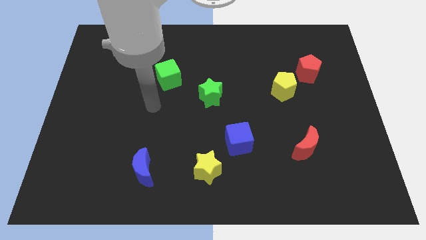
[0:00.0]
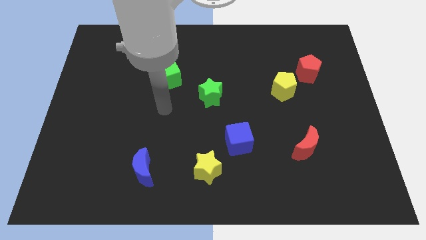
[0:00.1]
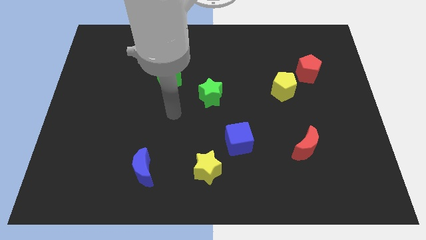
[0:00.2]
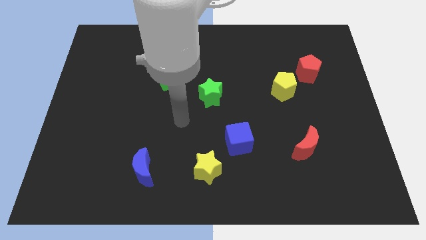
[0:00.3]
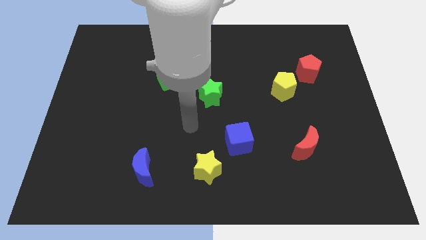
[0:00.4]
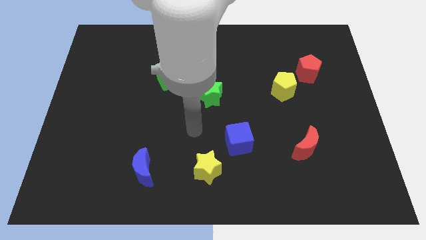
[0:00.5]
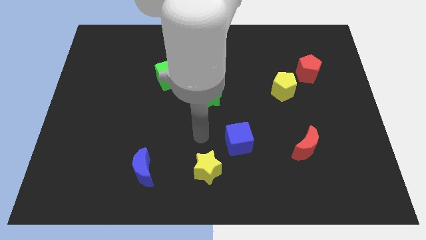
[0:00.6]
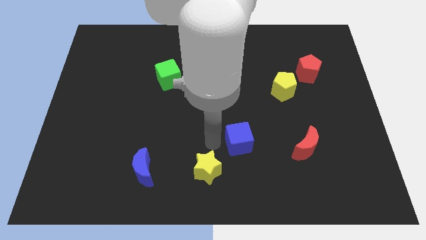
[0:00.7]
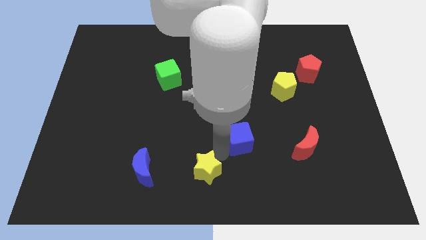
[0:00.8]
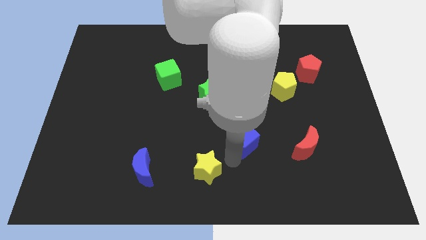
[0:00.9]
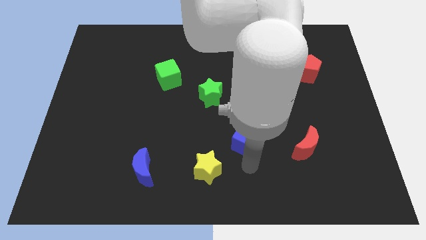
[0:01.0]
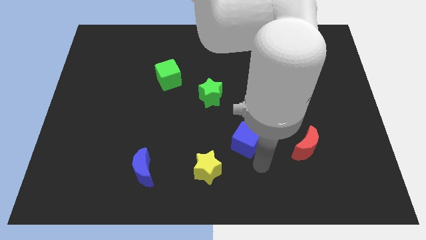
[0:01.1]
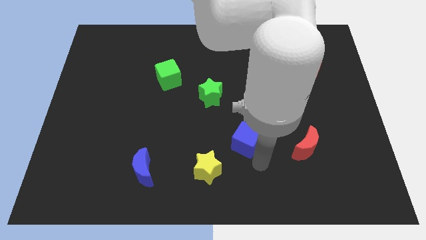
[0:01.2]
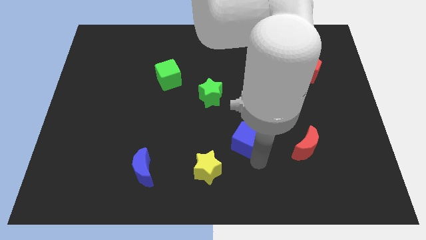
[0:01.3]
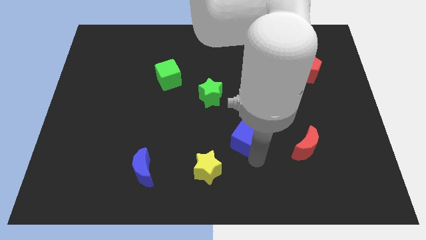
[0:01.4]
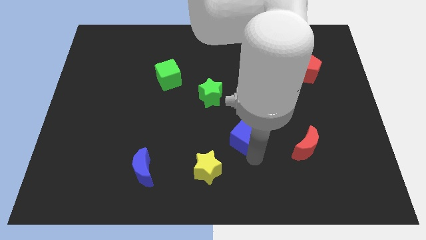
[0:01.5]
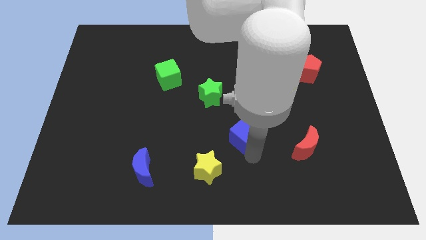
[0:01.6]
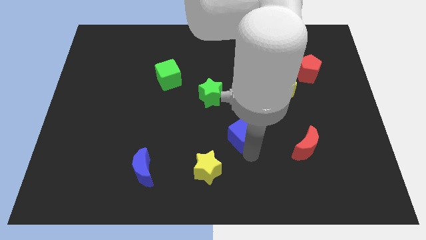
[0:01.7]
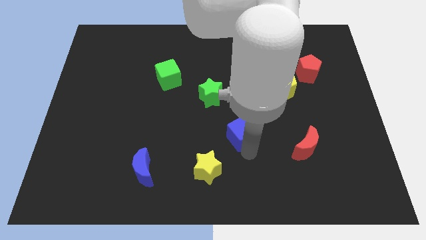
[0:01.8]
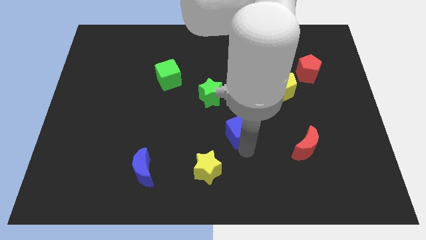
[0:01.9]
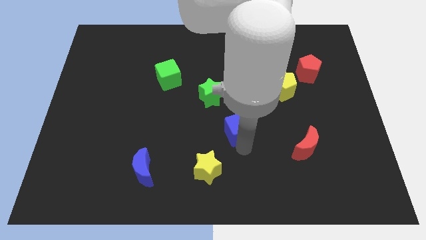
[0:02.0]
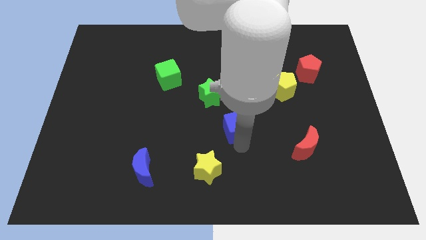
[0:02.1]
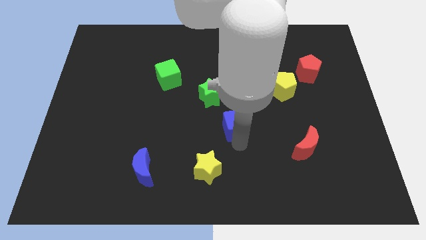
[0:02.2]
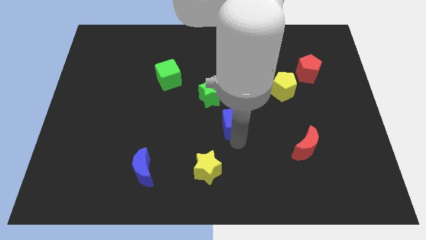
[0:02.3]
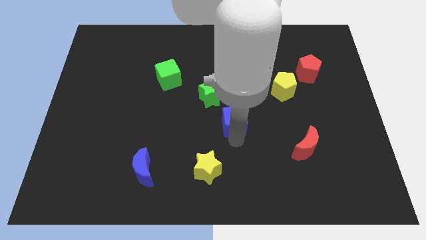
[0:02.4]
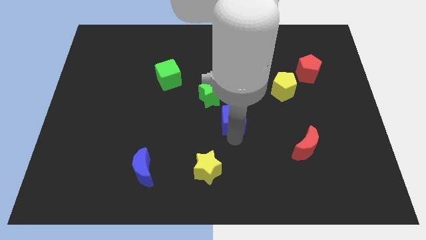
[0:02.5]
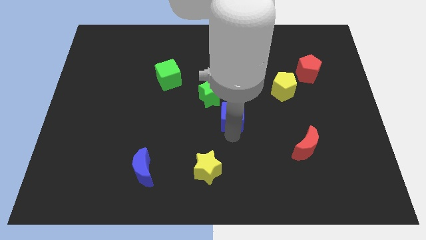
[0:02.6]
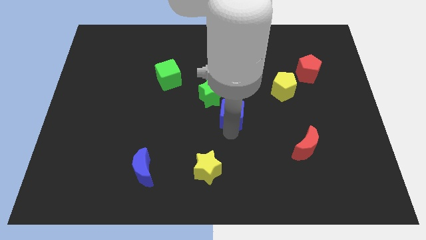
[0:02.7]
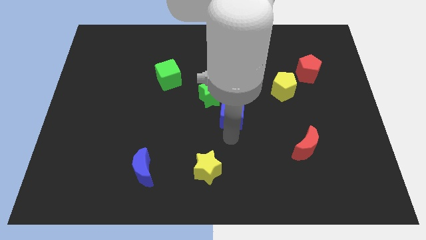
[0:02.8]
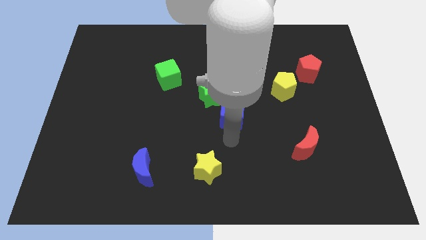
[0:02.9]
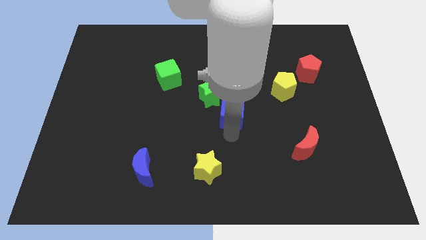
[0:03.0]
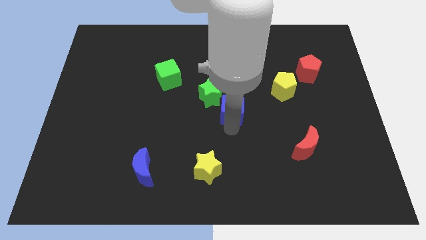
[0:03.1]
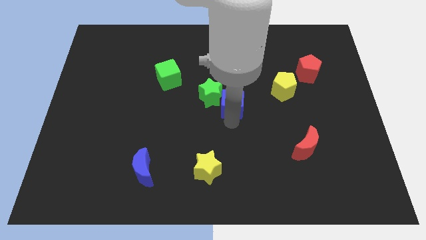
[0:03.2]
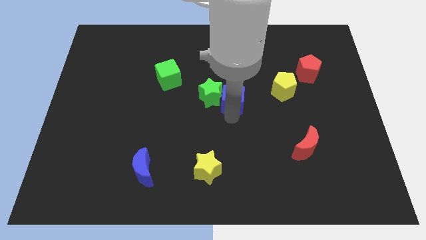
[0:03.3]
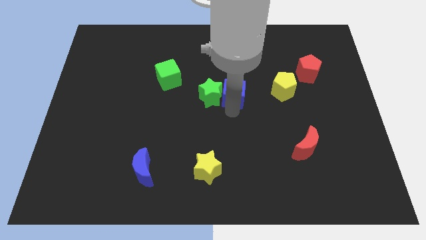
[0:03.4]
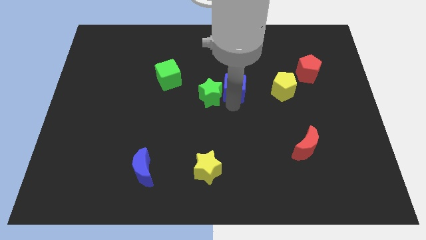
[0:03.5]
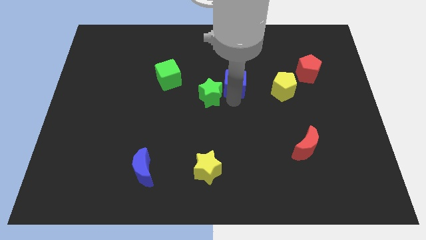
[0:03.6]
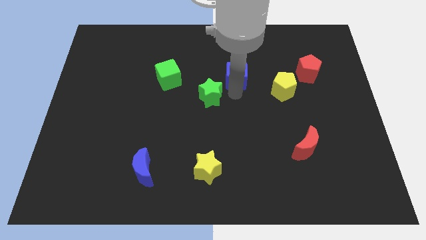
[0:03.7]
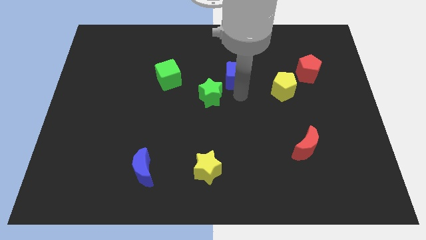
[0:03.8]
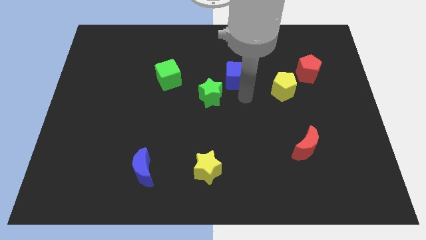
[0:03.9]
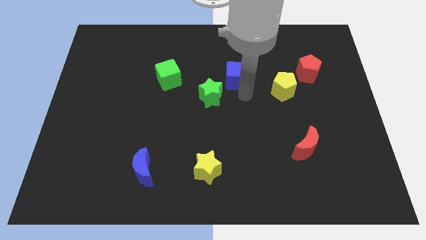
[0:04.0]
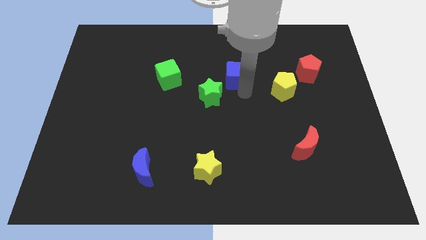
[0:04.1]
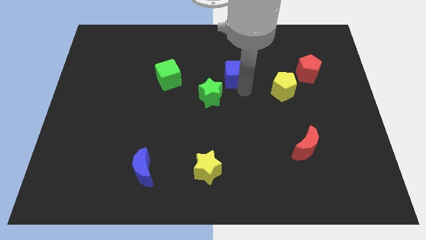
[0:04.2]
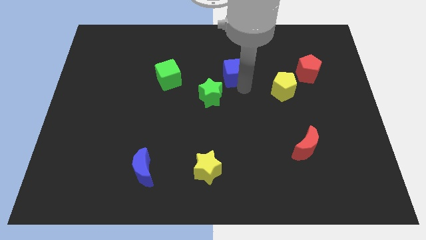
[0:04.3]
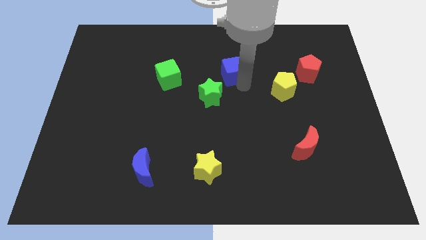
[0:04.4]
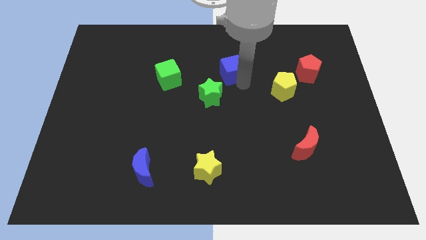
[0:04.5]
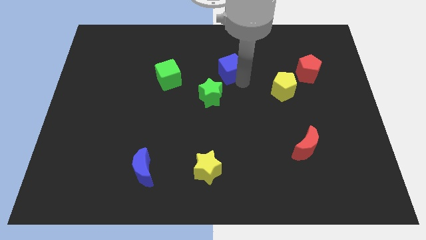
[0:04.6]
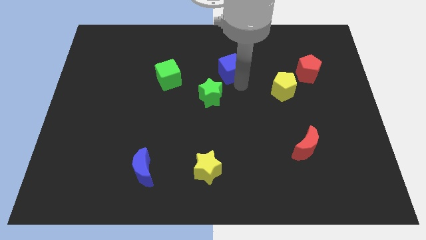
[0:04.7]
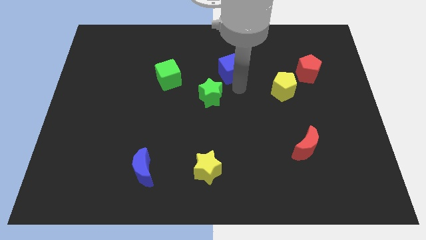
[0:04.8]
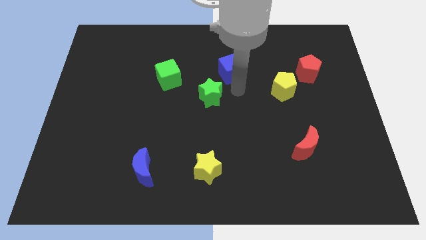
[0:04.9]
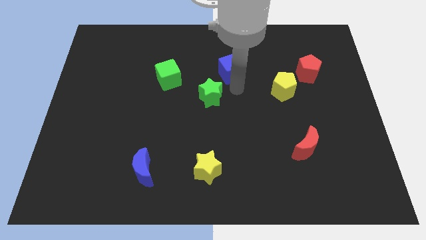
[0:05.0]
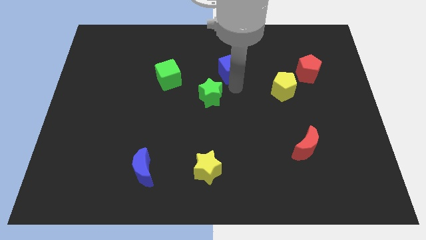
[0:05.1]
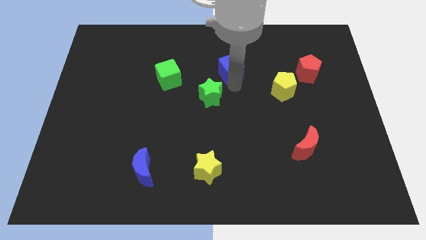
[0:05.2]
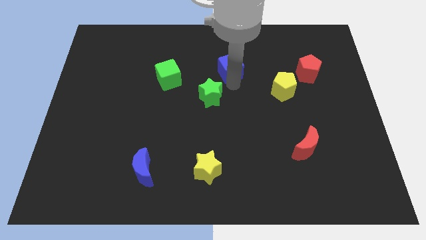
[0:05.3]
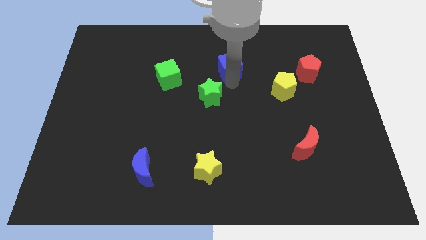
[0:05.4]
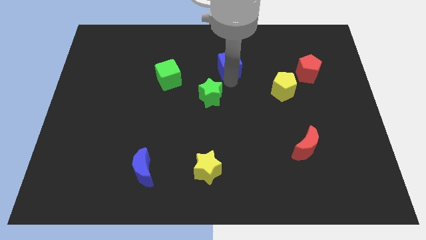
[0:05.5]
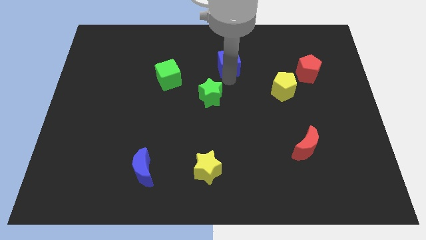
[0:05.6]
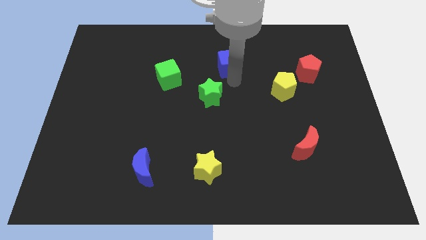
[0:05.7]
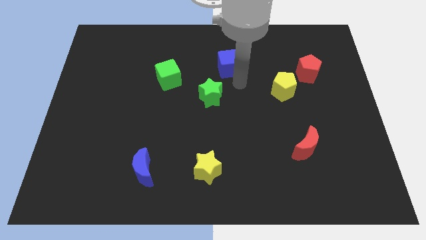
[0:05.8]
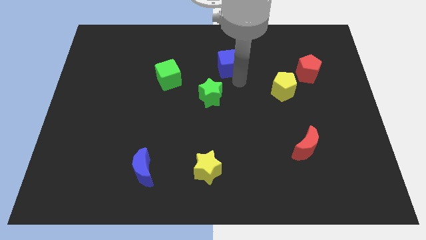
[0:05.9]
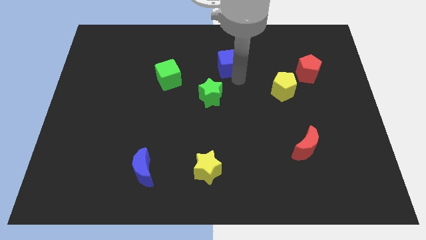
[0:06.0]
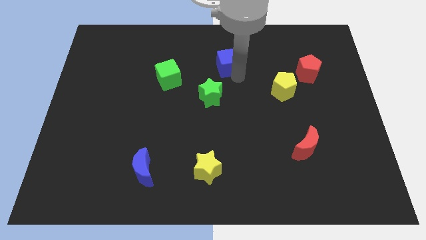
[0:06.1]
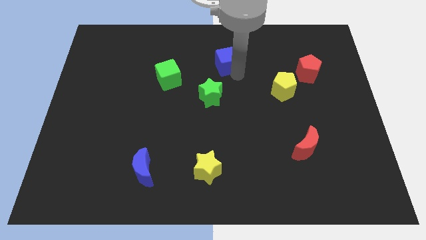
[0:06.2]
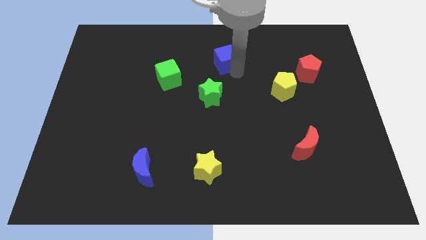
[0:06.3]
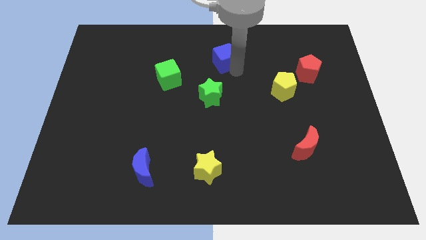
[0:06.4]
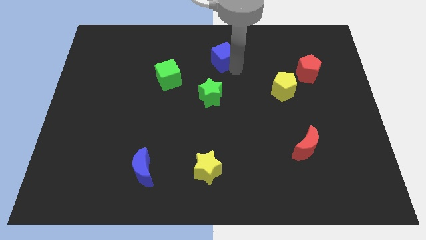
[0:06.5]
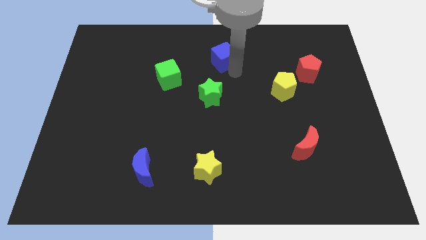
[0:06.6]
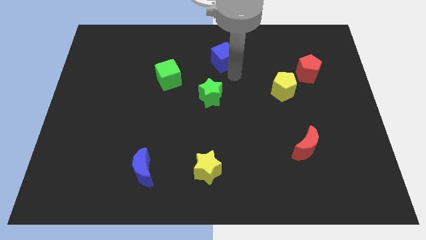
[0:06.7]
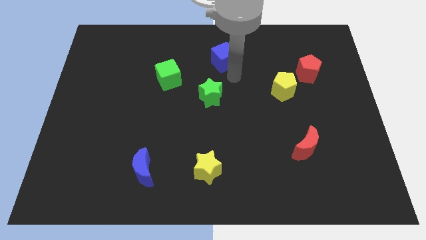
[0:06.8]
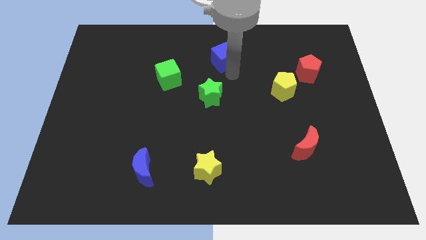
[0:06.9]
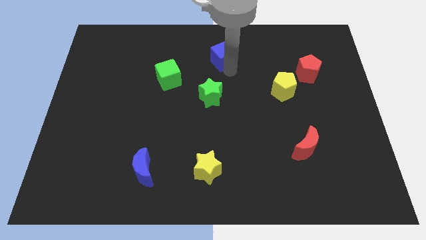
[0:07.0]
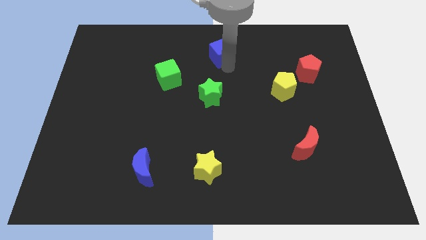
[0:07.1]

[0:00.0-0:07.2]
move the blue cube to the towards your base
